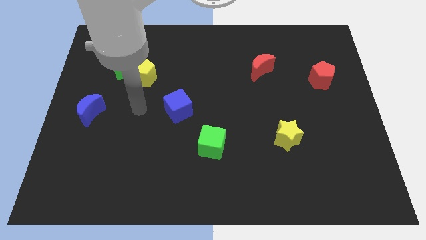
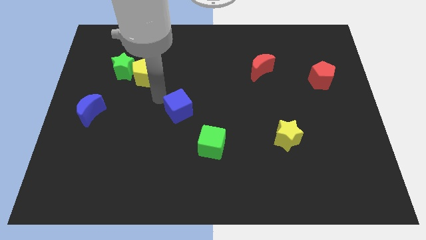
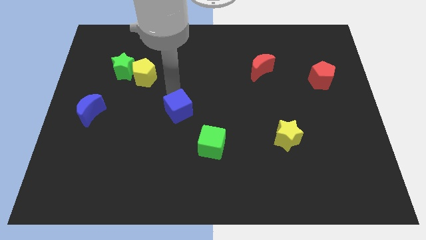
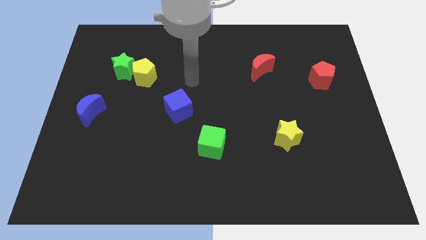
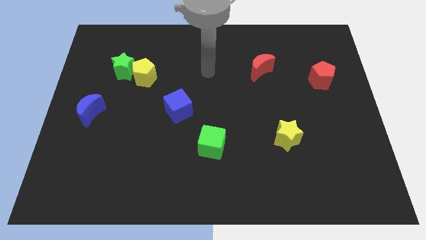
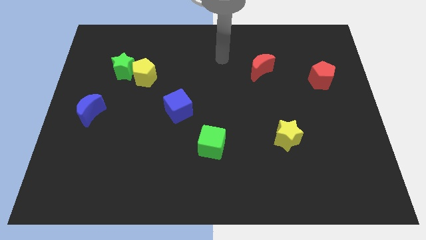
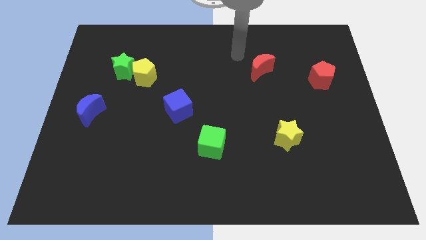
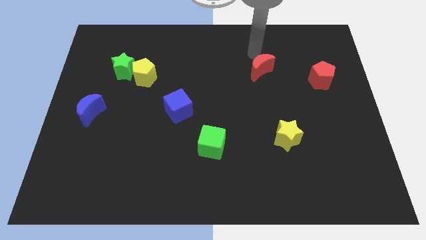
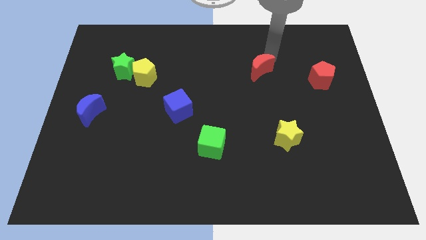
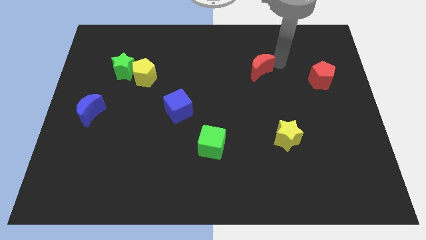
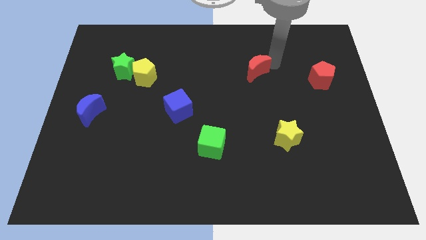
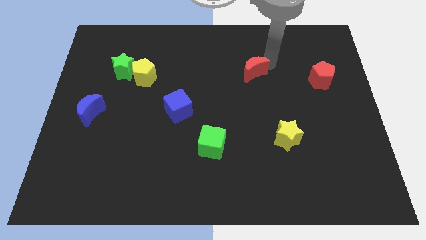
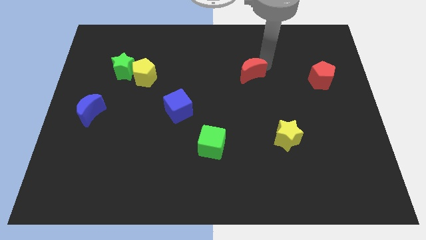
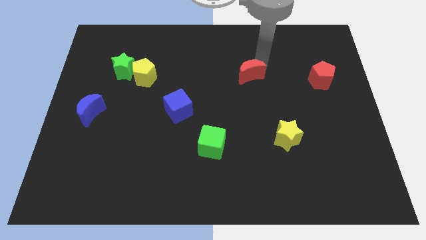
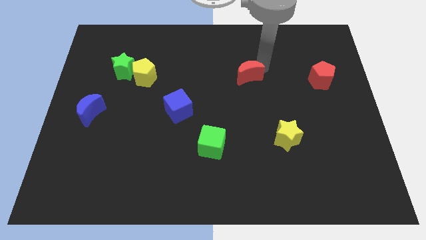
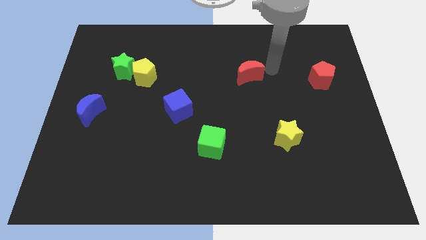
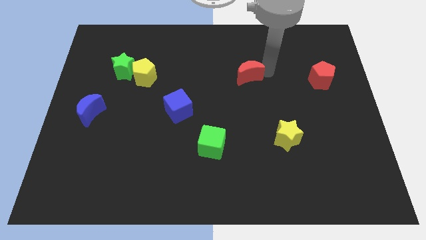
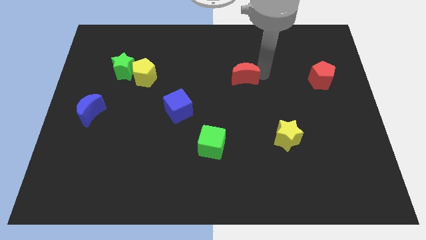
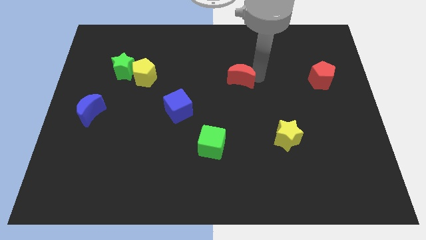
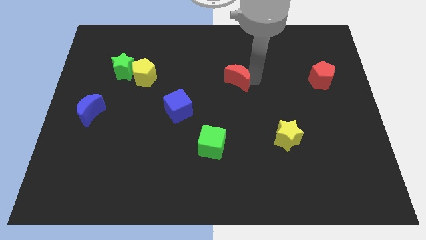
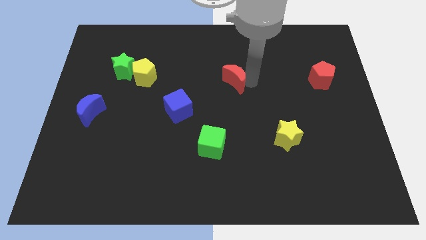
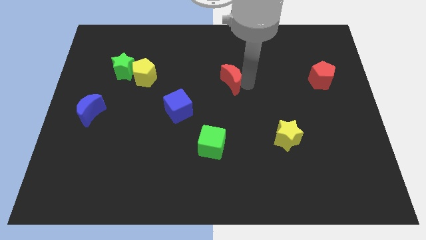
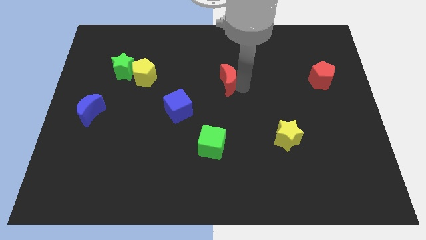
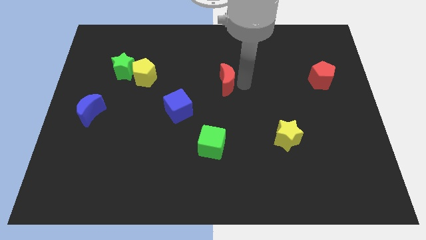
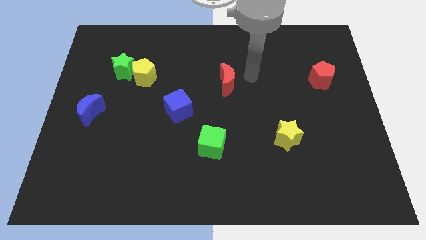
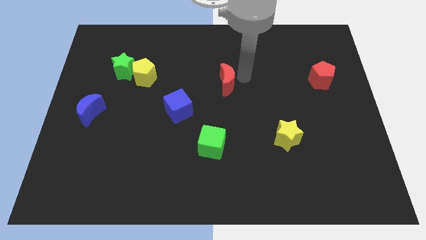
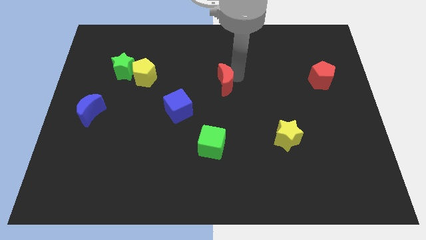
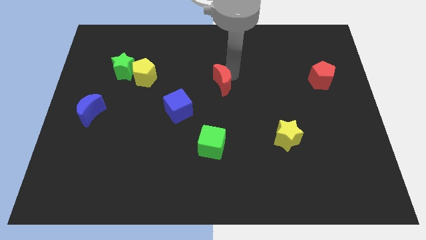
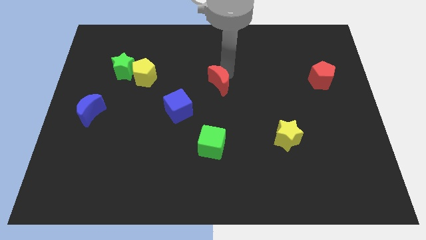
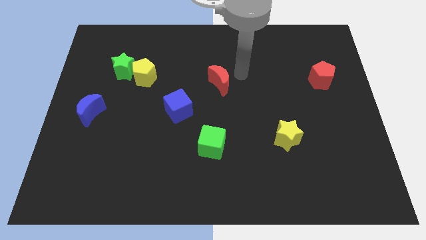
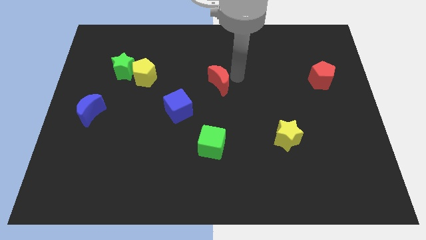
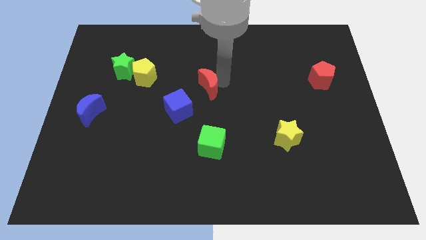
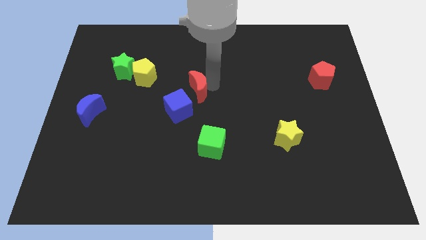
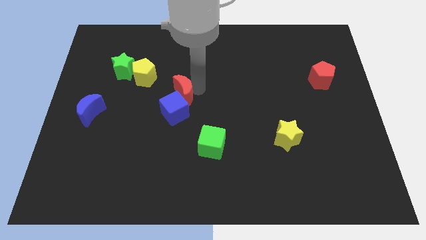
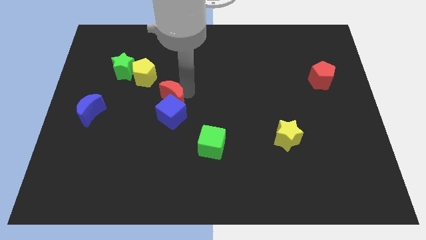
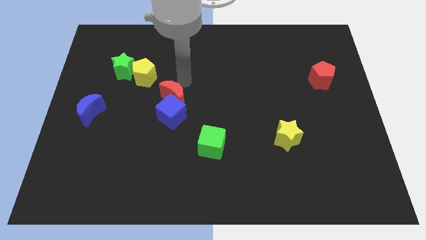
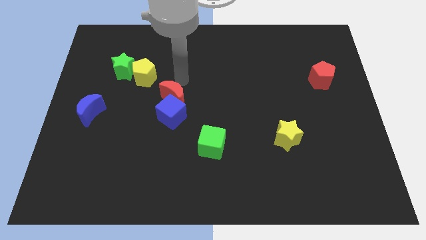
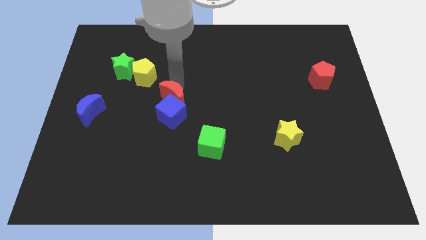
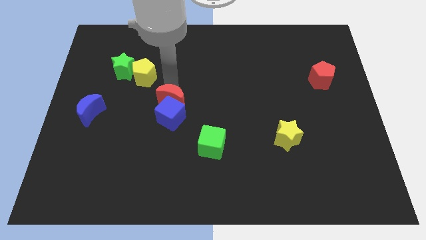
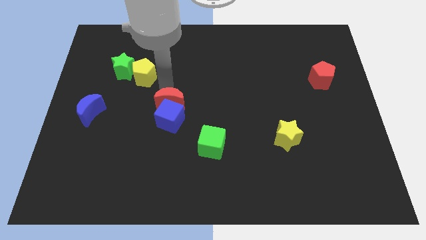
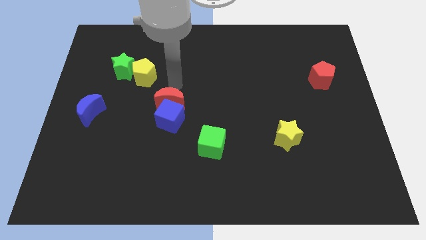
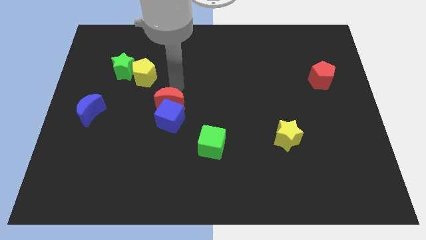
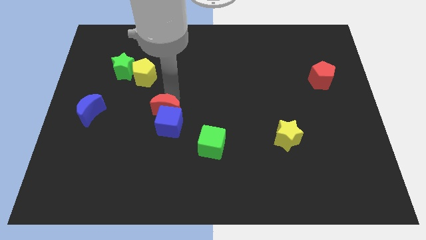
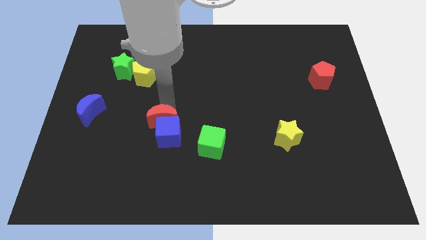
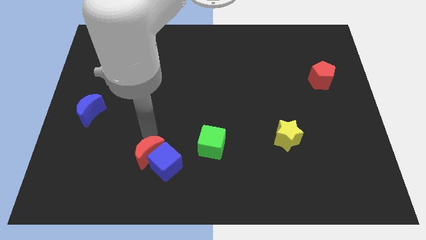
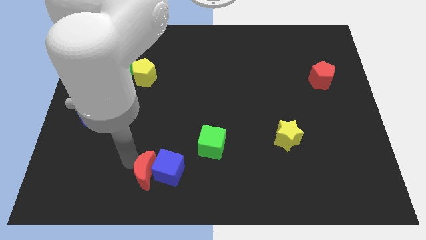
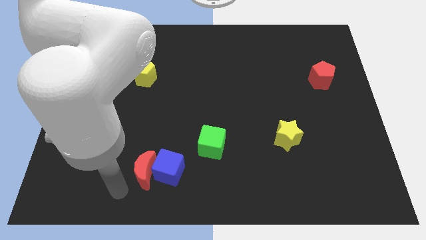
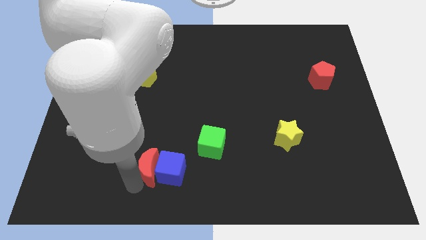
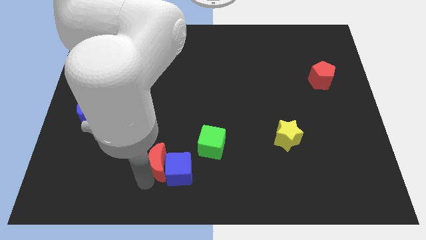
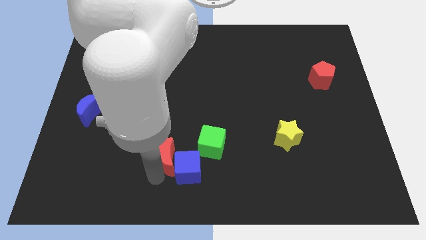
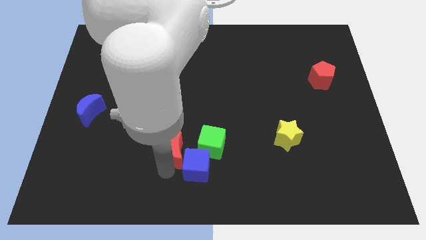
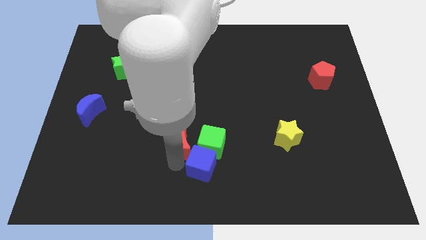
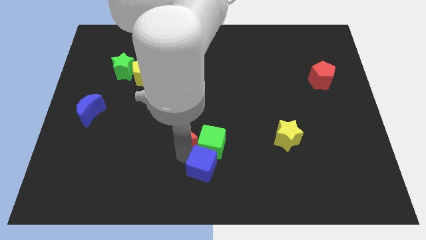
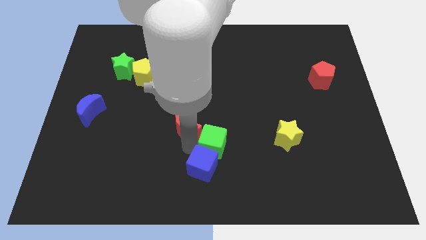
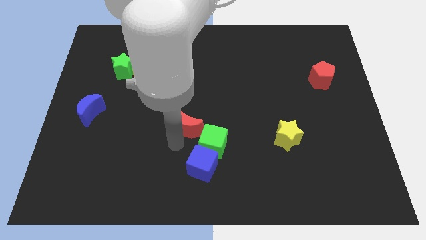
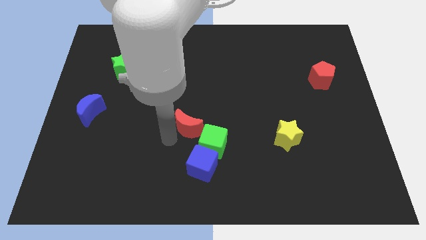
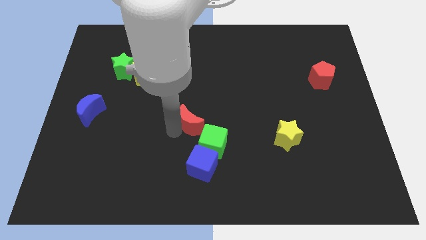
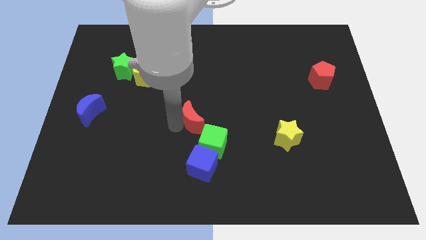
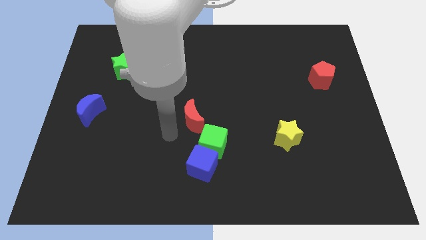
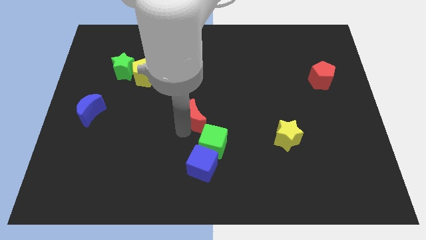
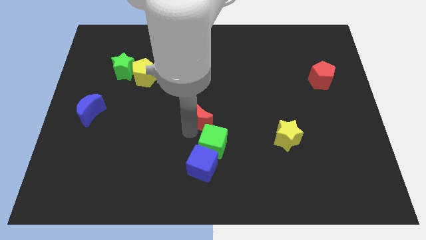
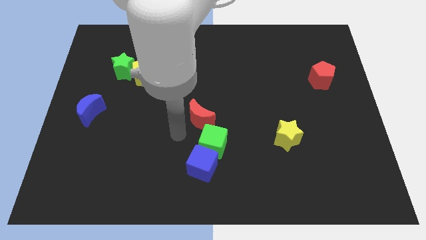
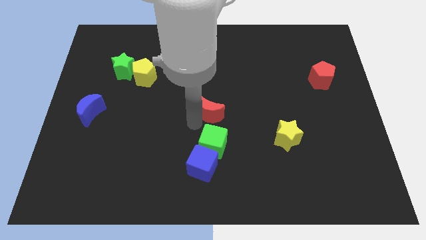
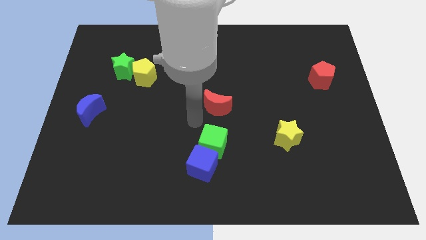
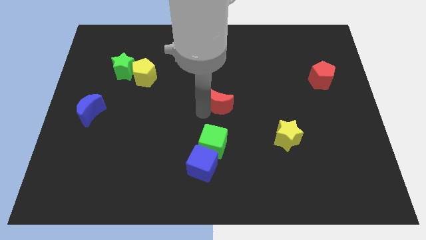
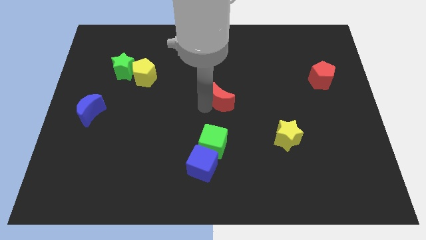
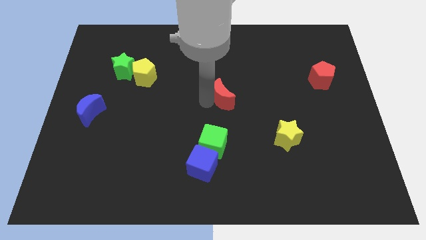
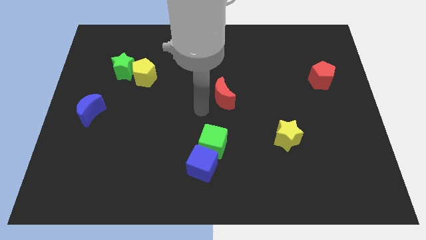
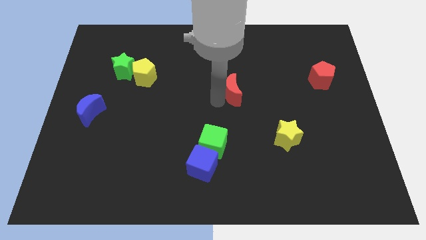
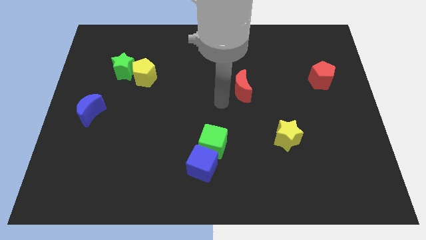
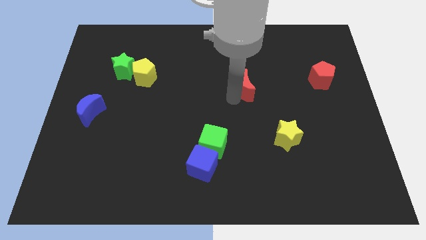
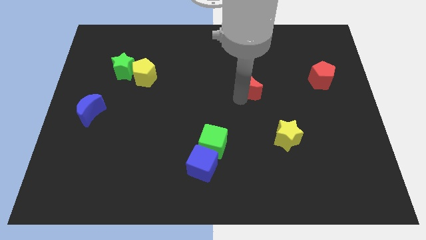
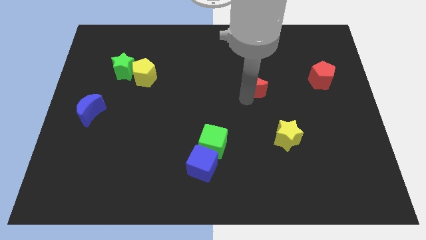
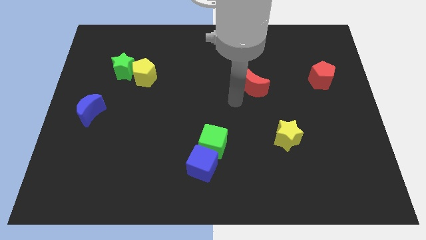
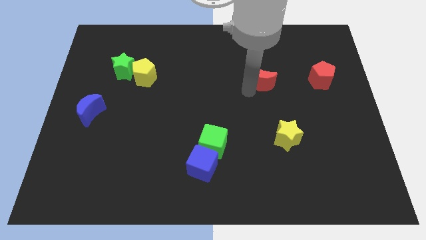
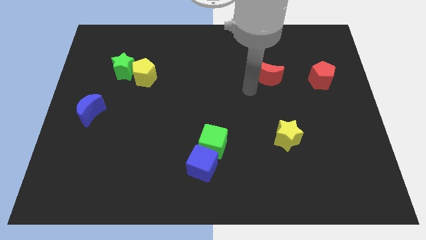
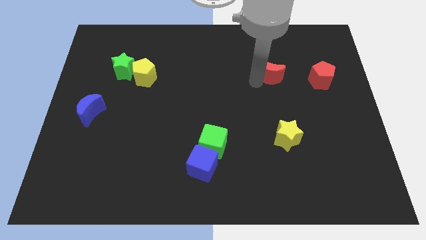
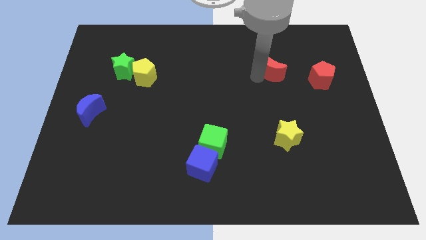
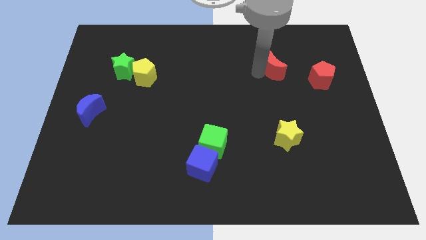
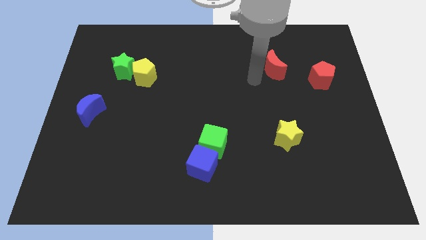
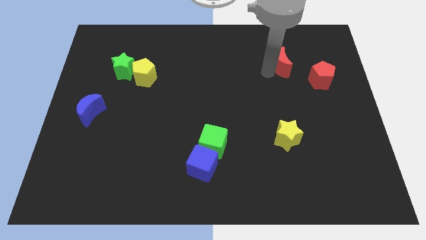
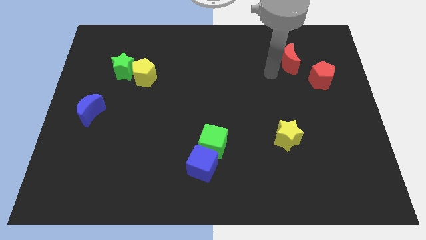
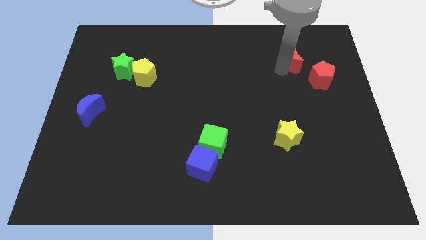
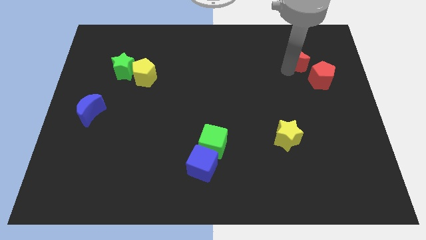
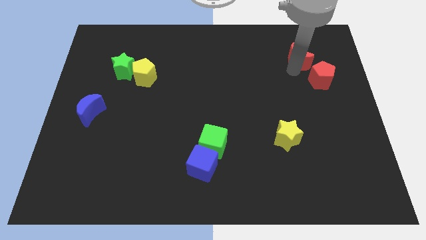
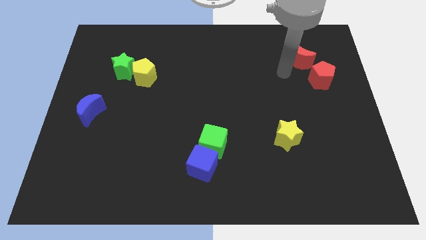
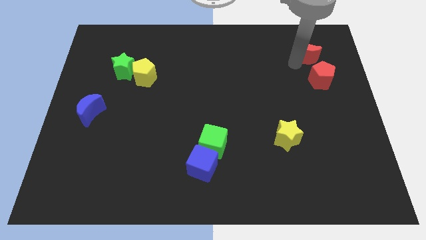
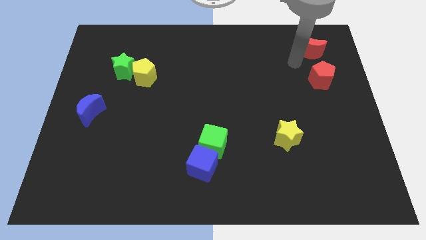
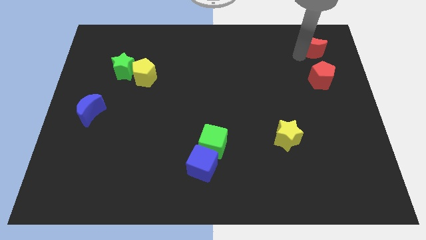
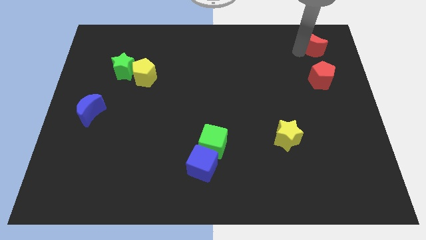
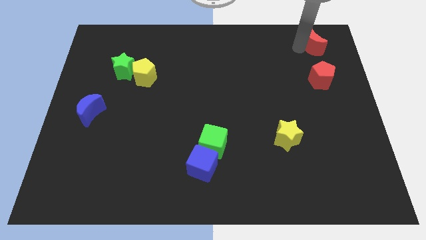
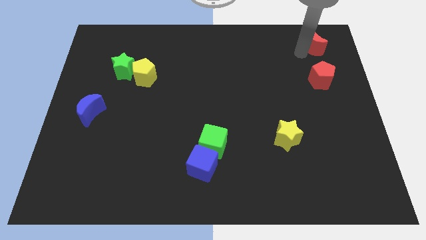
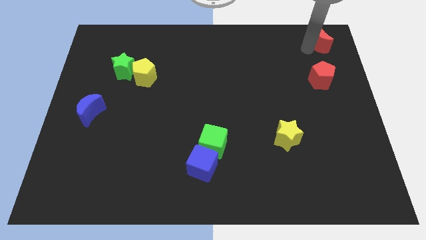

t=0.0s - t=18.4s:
push the red moon to the top right
